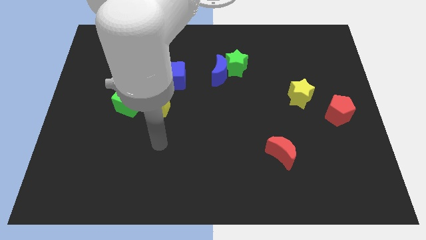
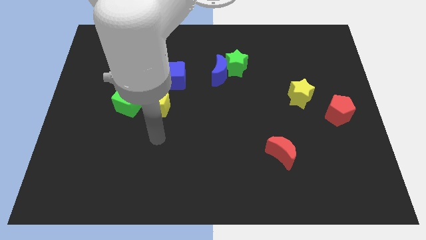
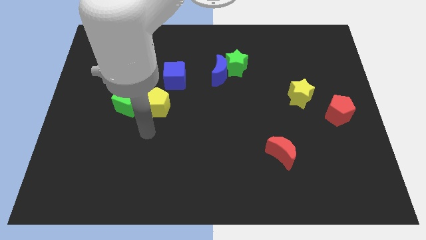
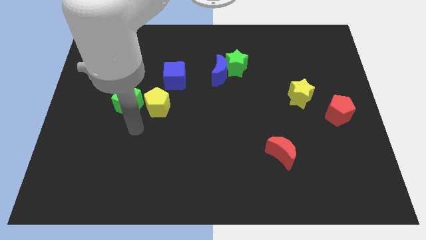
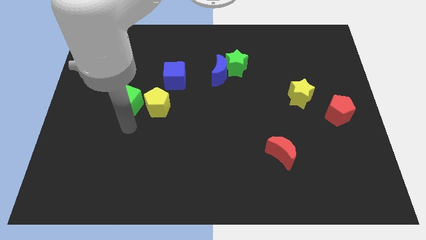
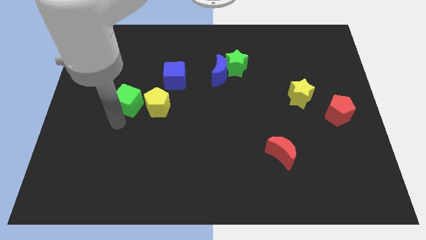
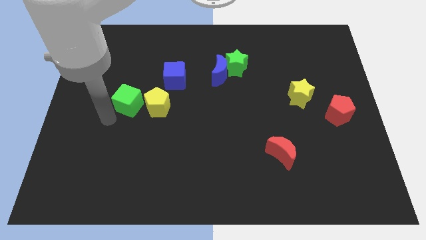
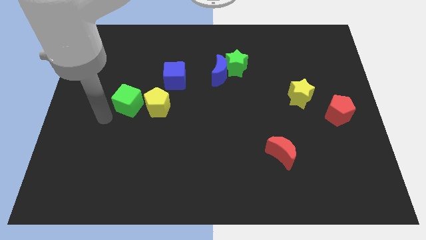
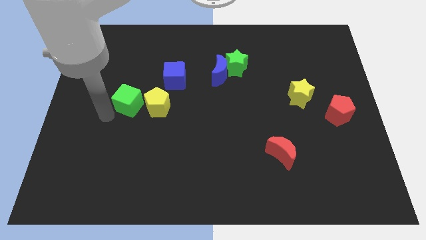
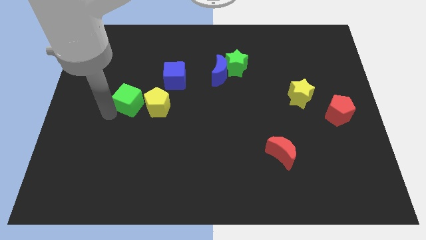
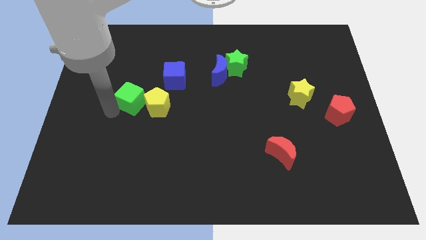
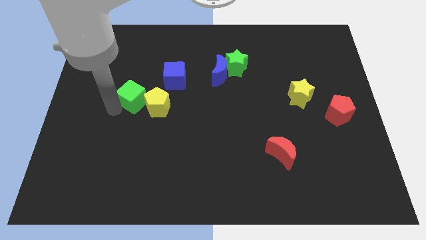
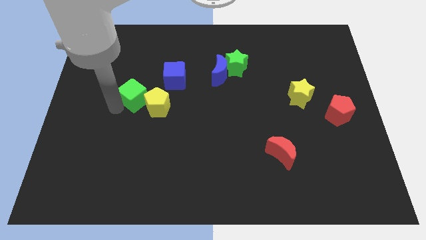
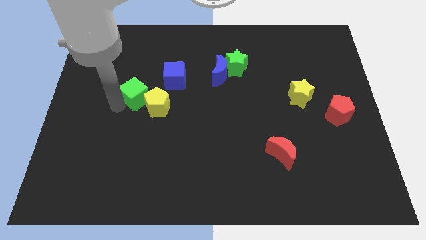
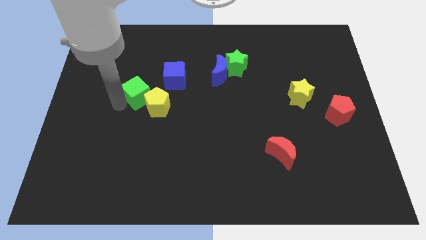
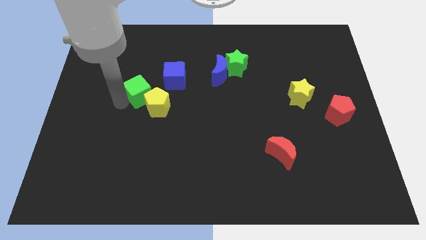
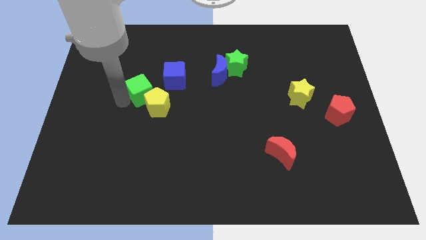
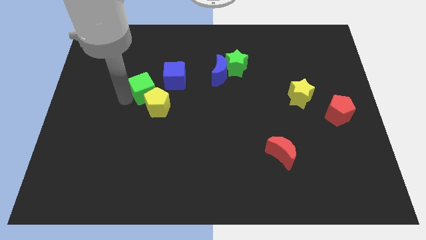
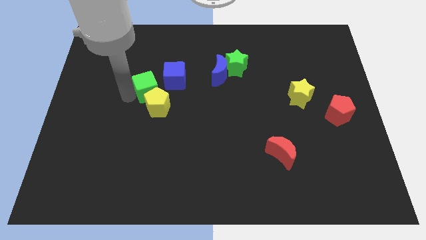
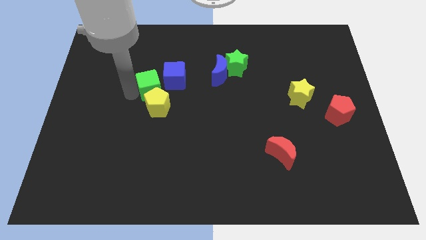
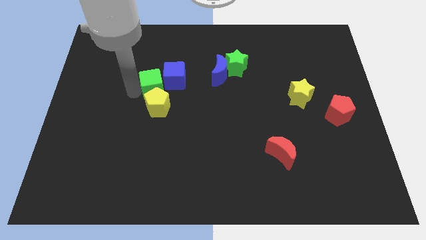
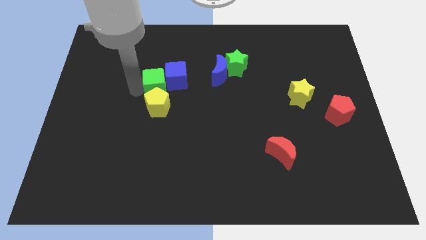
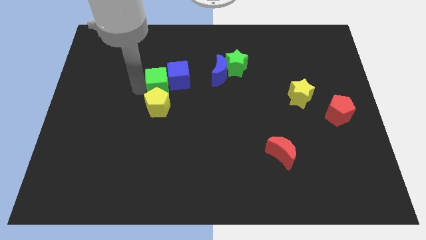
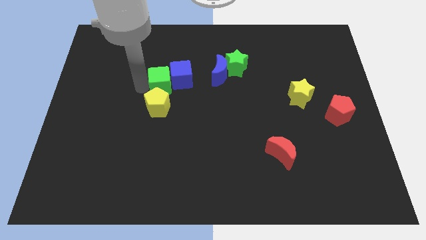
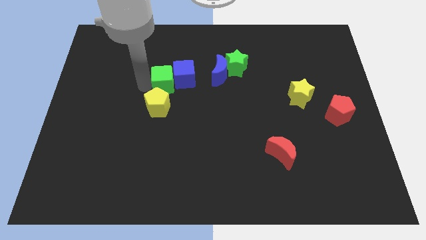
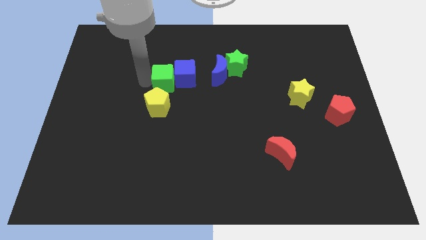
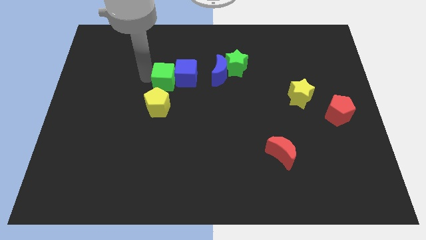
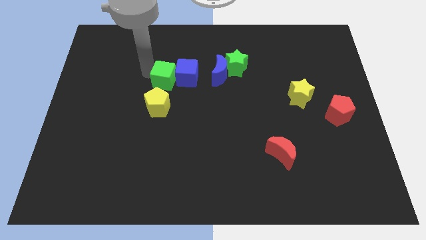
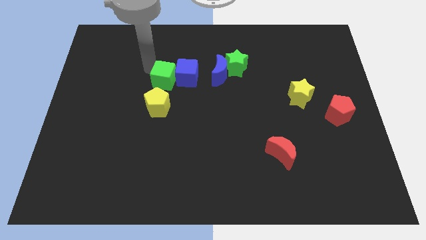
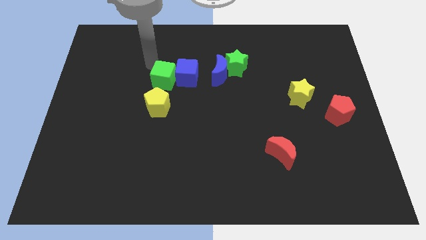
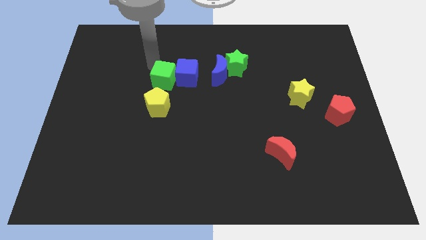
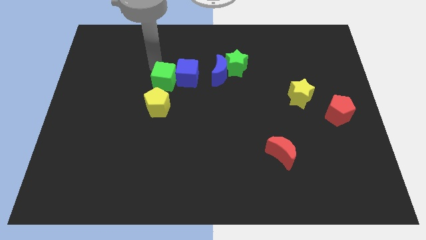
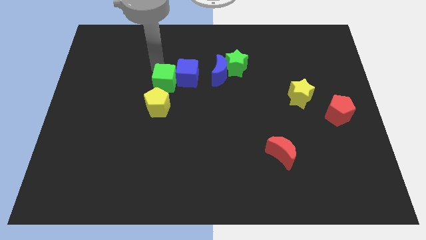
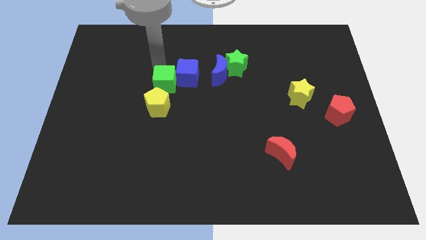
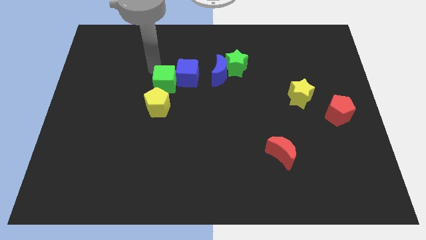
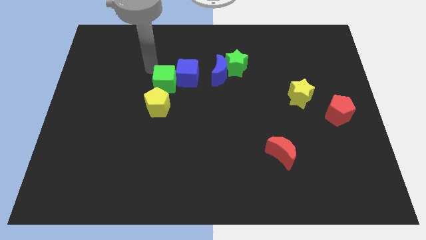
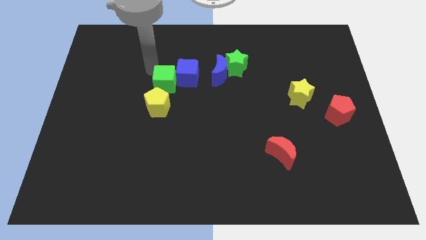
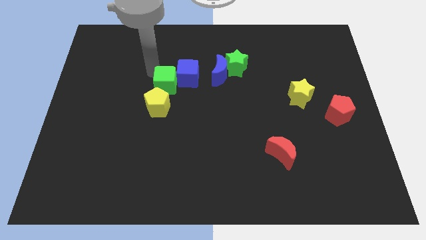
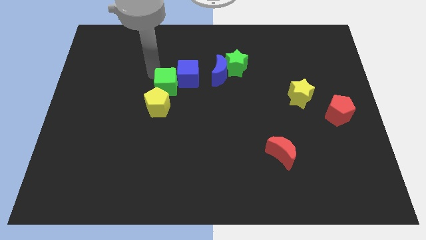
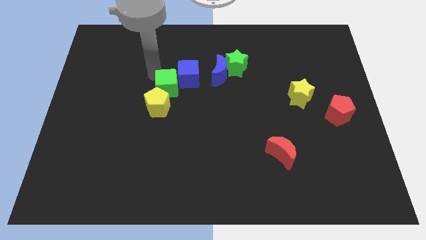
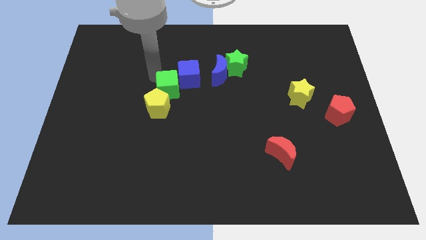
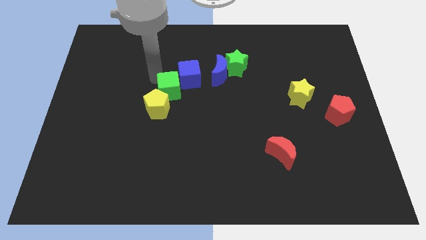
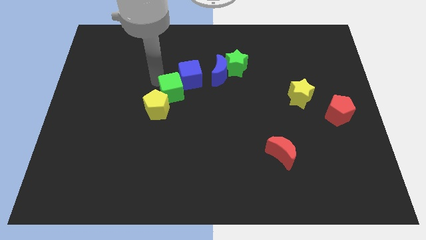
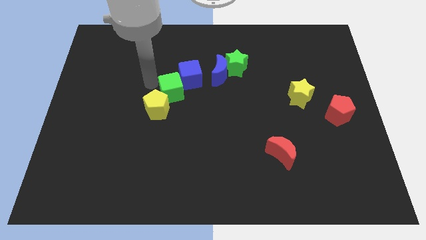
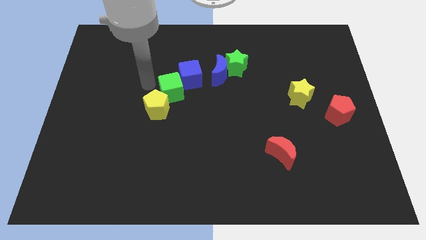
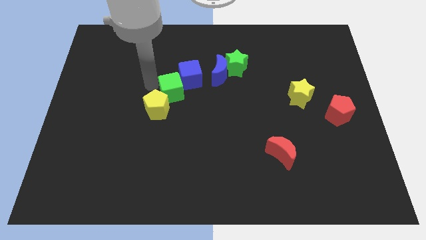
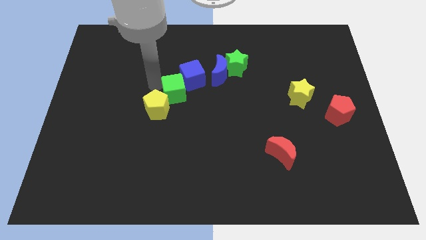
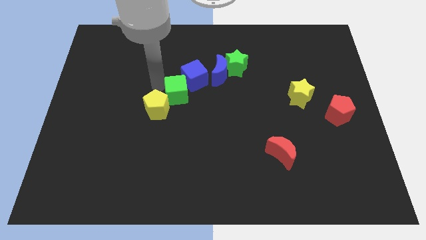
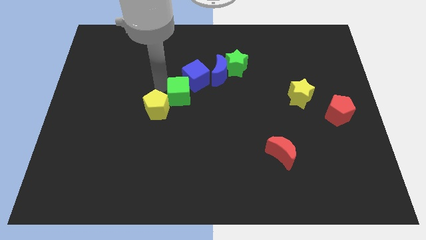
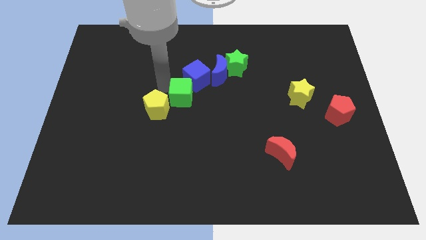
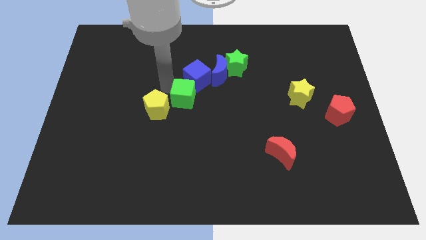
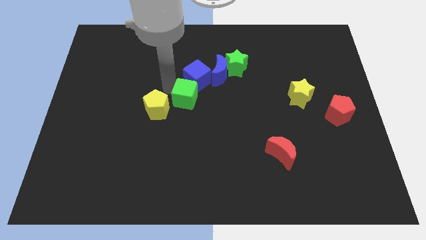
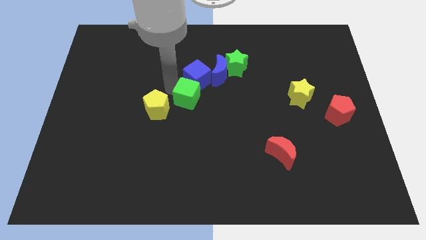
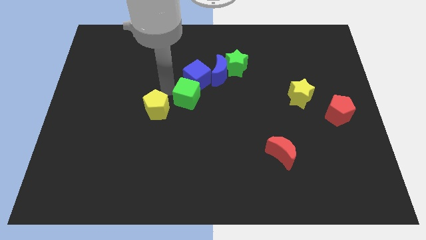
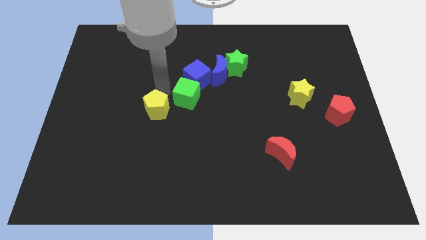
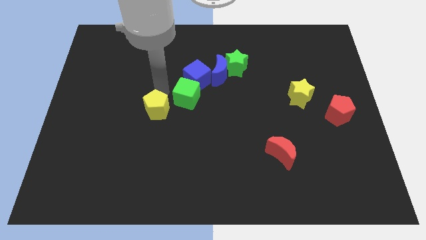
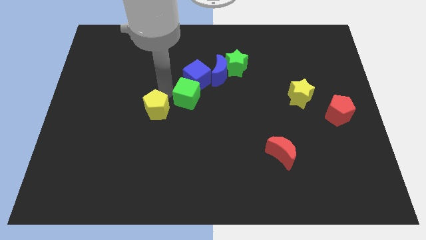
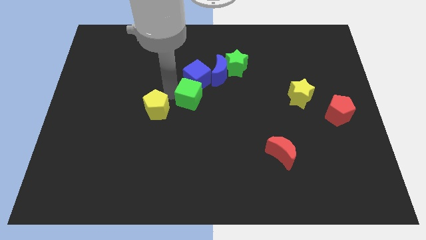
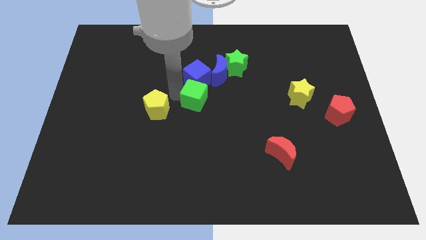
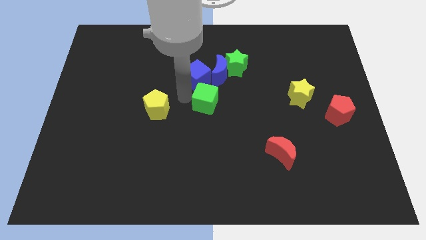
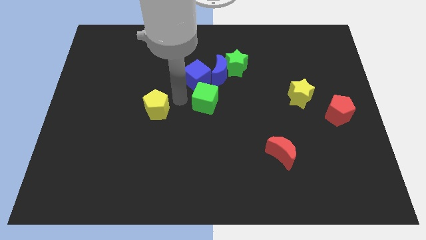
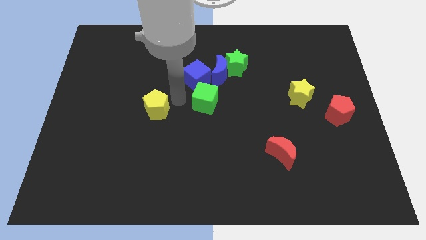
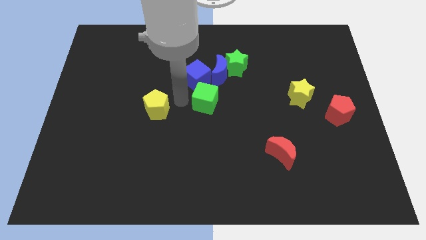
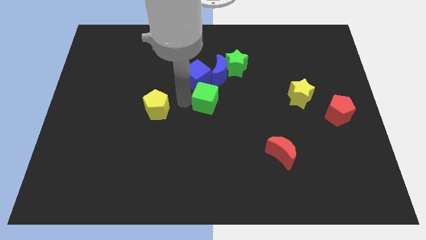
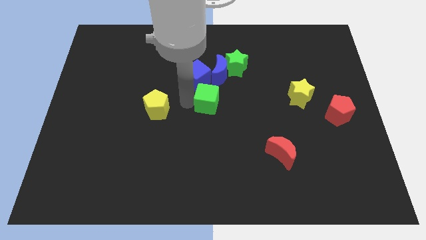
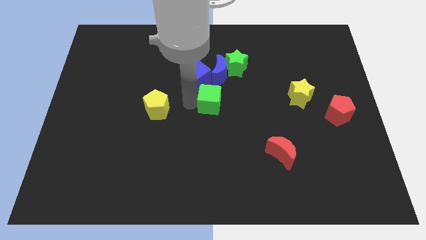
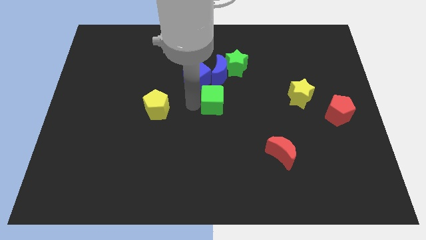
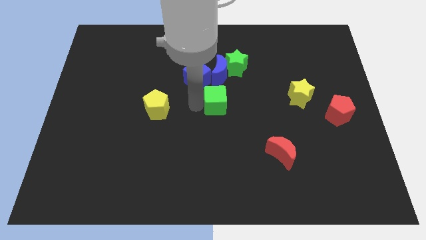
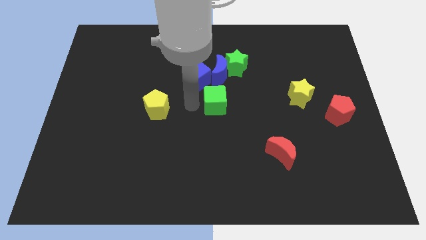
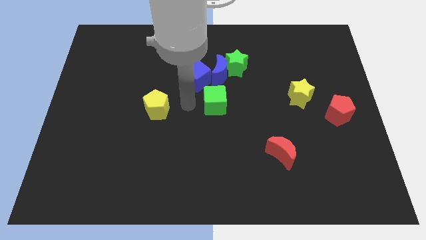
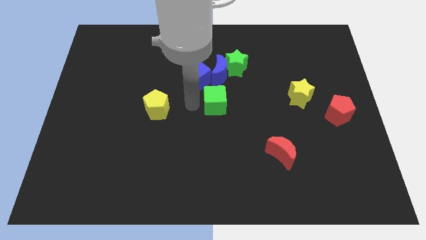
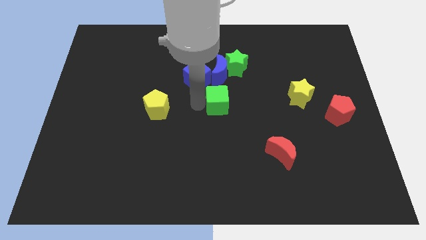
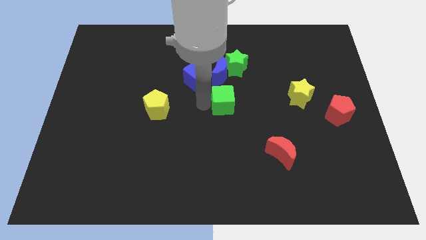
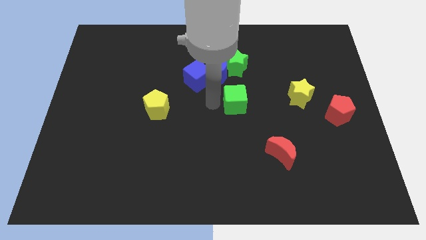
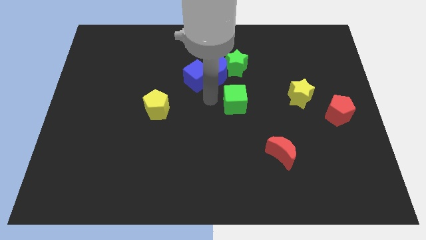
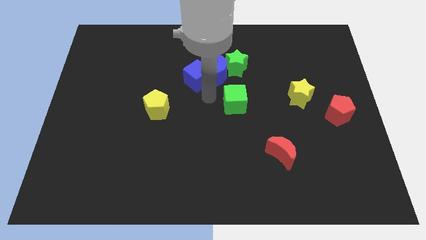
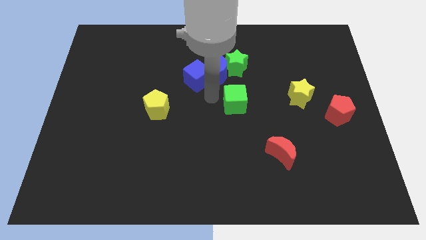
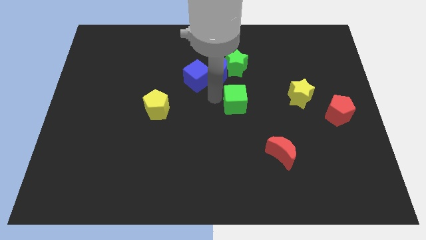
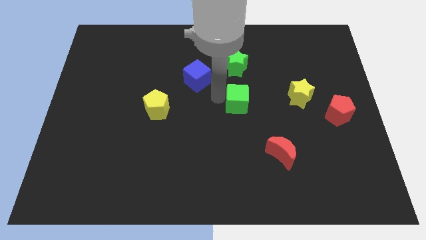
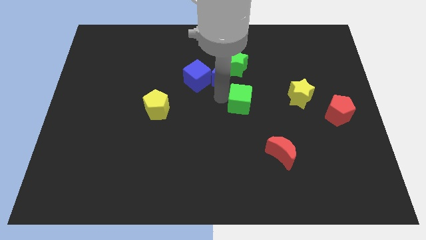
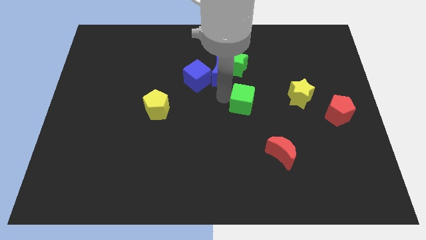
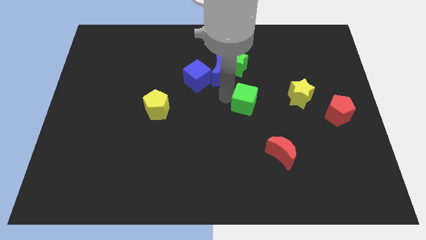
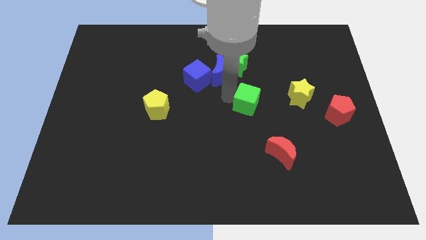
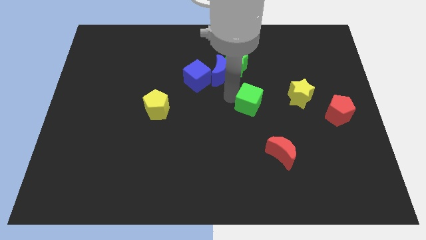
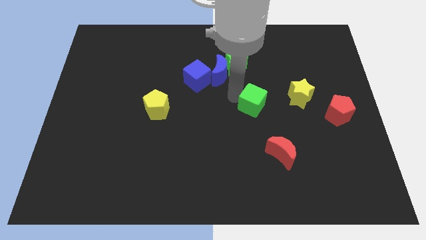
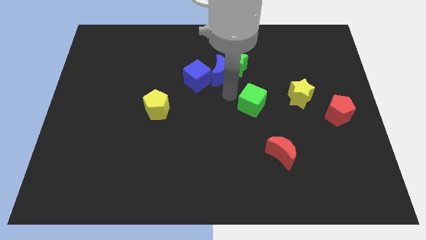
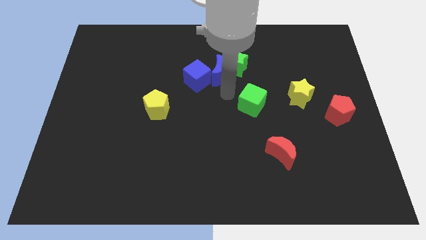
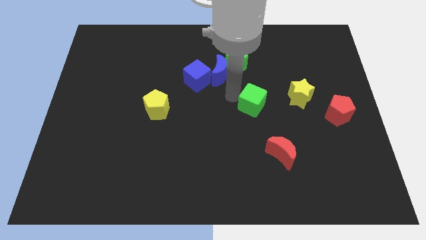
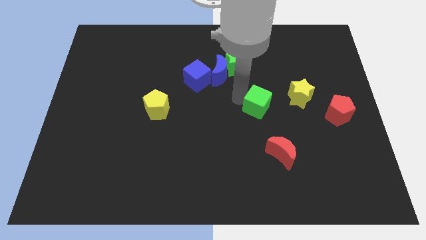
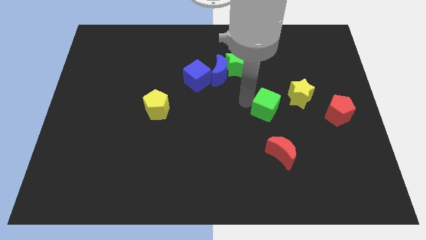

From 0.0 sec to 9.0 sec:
slide the green cube to the bottom left of the yellow star
